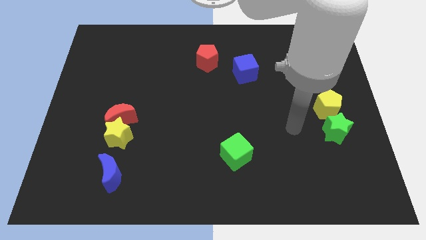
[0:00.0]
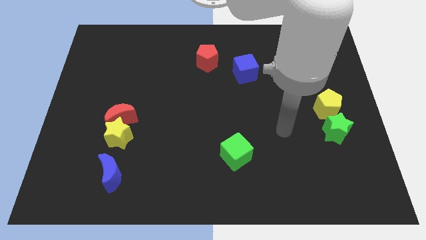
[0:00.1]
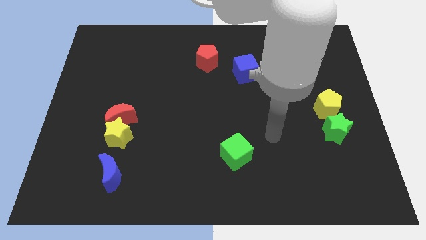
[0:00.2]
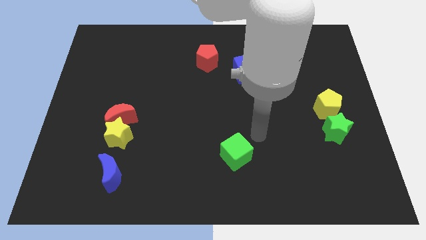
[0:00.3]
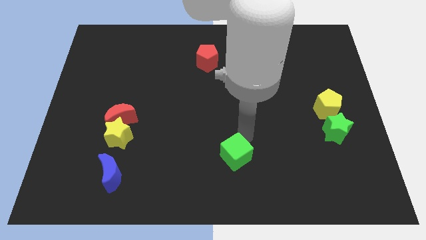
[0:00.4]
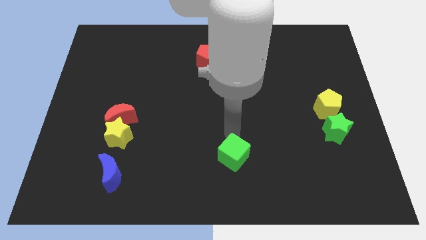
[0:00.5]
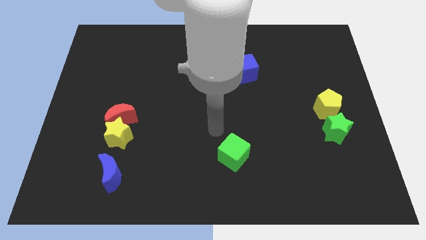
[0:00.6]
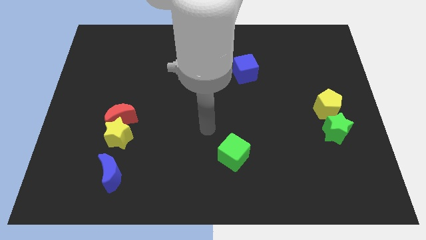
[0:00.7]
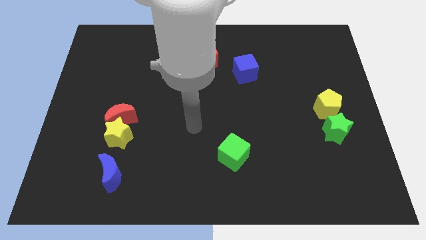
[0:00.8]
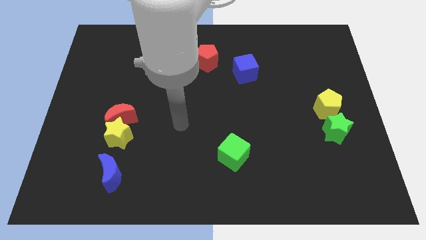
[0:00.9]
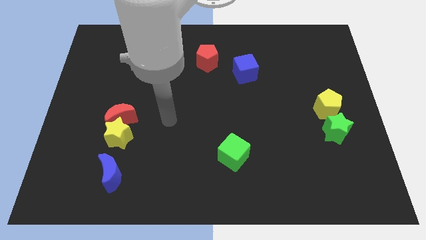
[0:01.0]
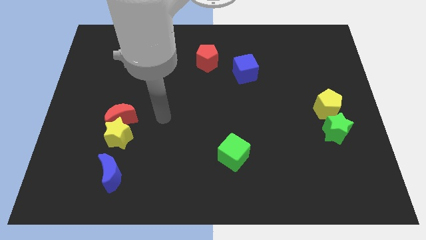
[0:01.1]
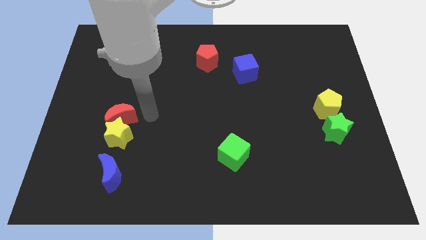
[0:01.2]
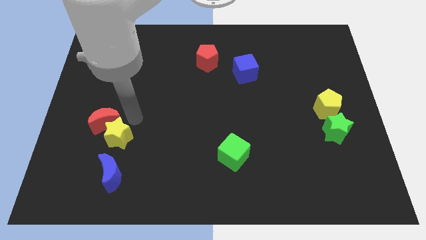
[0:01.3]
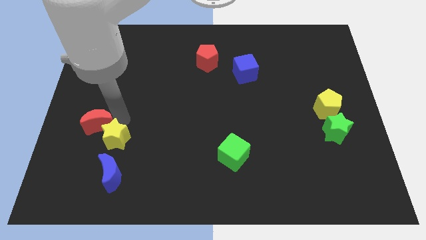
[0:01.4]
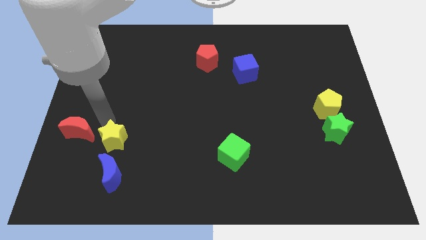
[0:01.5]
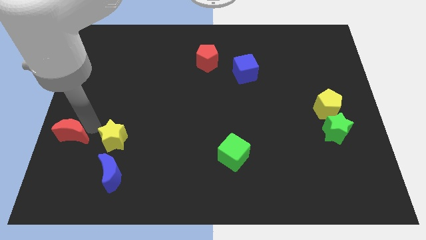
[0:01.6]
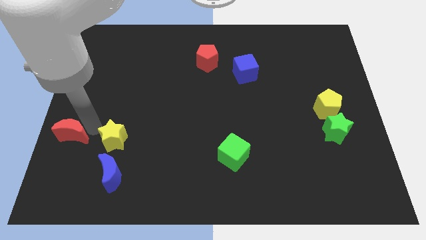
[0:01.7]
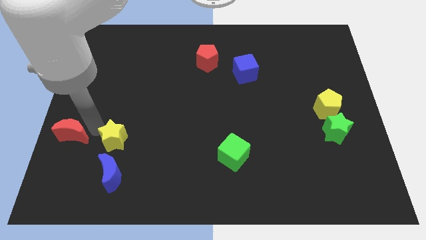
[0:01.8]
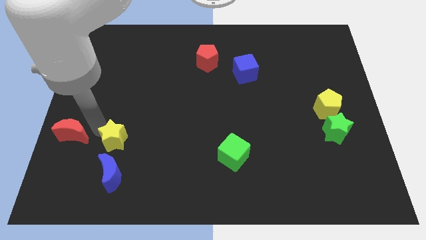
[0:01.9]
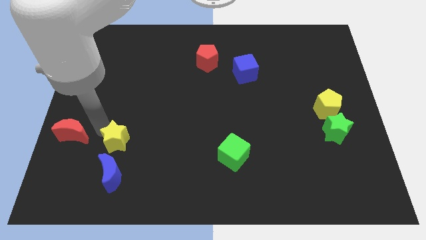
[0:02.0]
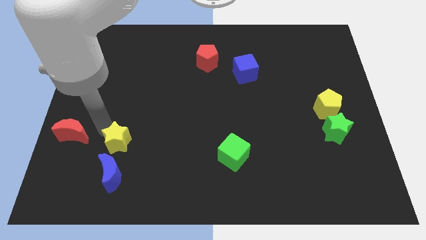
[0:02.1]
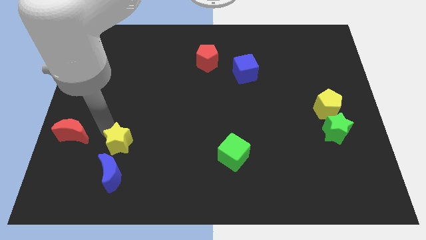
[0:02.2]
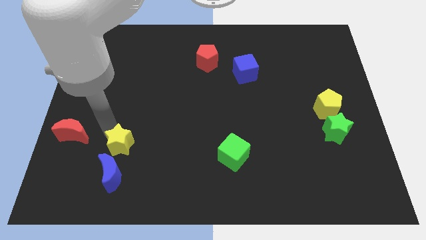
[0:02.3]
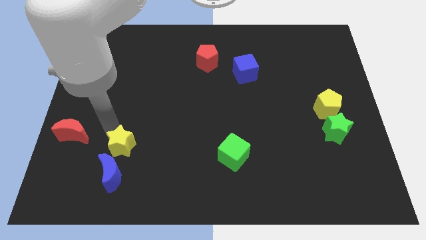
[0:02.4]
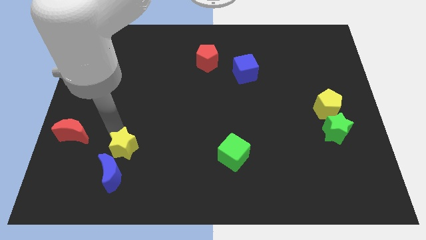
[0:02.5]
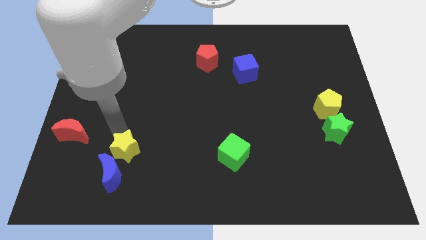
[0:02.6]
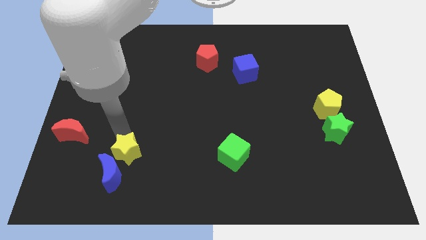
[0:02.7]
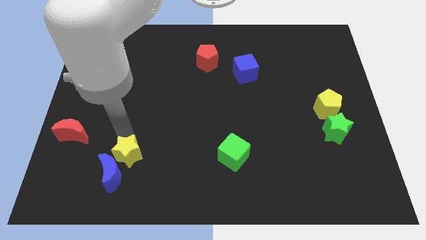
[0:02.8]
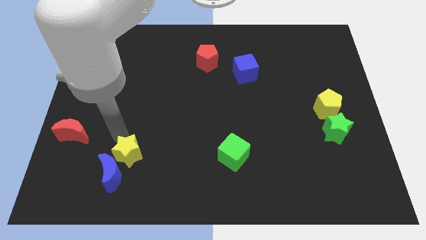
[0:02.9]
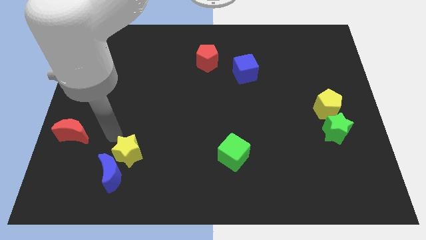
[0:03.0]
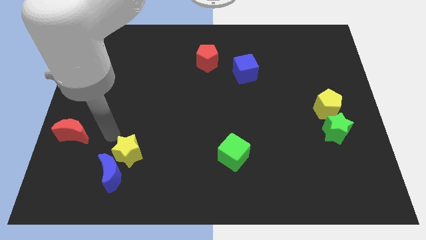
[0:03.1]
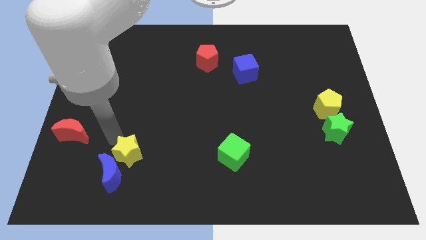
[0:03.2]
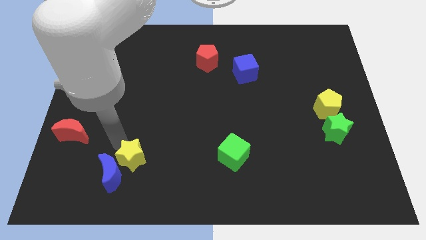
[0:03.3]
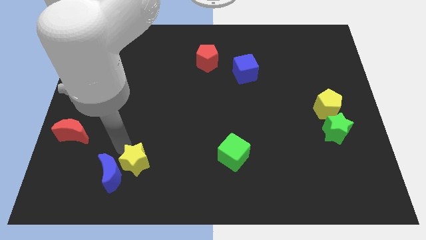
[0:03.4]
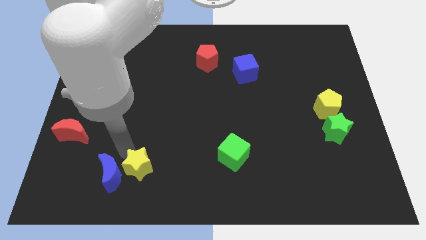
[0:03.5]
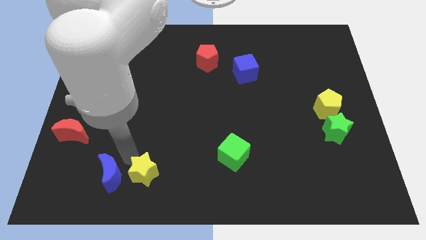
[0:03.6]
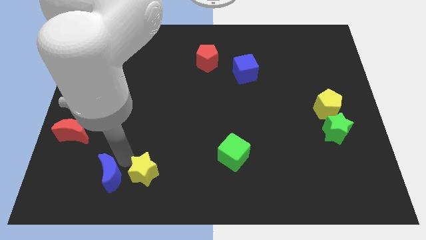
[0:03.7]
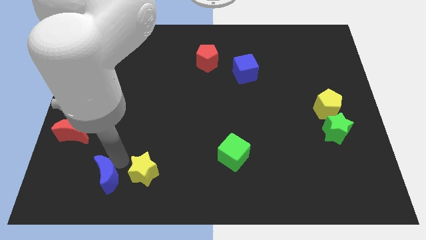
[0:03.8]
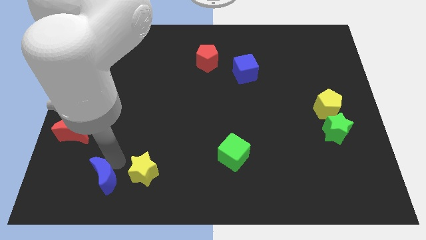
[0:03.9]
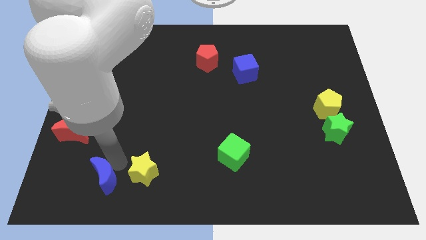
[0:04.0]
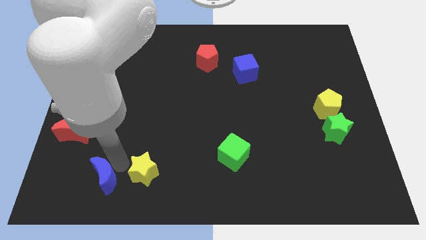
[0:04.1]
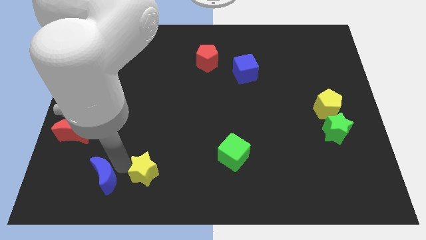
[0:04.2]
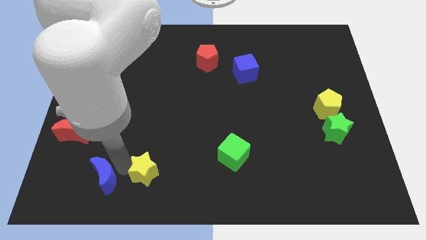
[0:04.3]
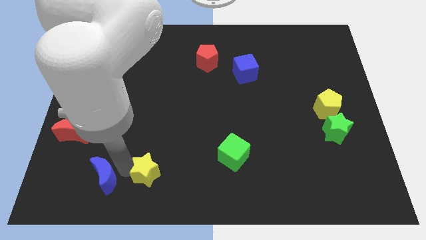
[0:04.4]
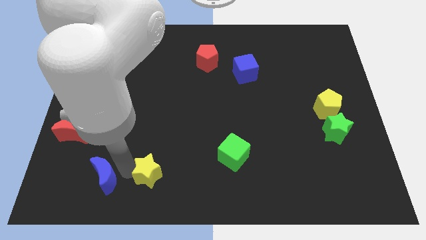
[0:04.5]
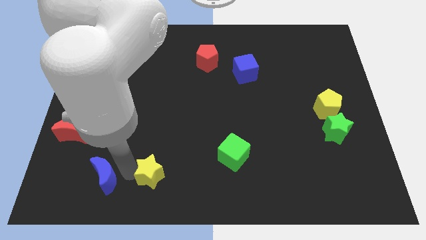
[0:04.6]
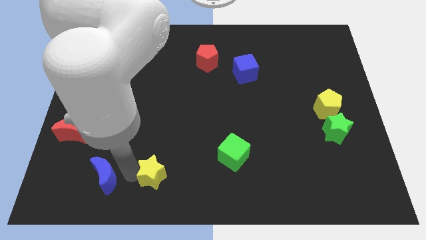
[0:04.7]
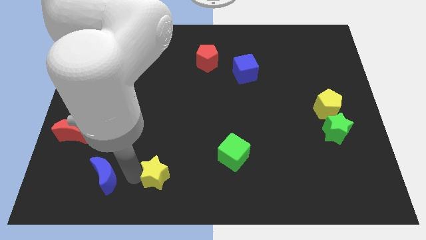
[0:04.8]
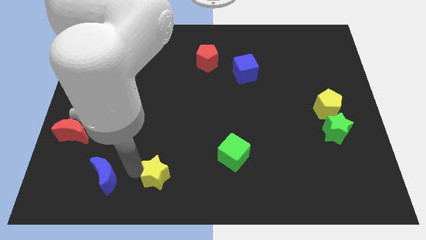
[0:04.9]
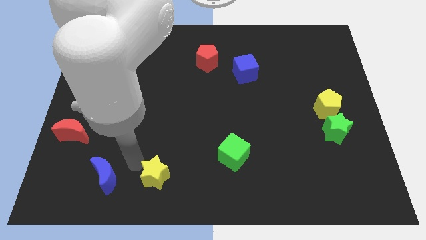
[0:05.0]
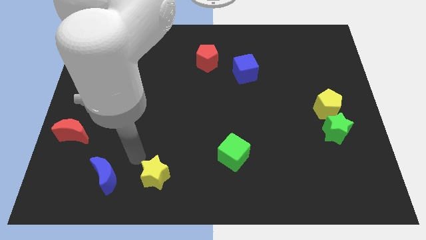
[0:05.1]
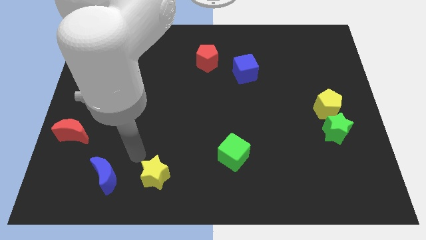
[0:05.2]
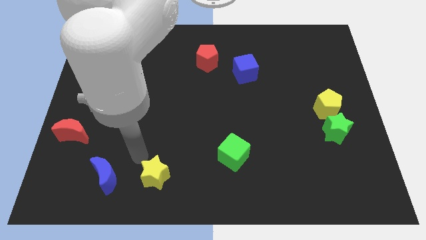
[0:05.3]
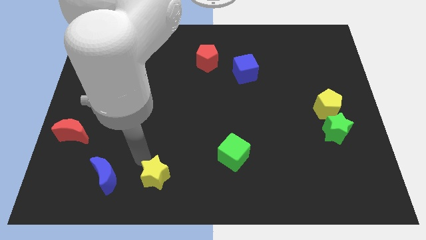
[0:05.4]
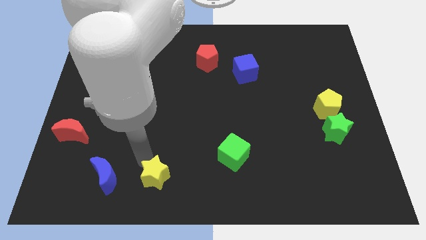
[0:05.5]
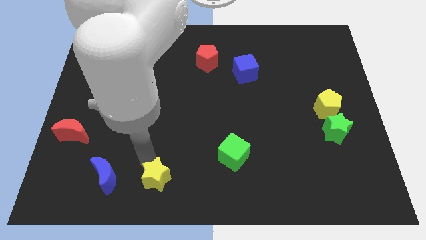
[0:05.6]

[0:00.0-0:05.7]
move the yellow star to the bottom side
